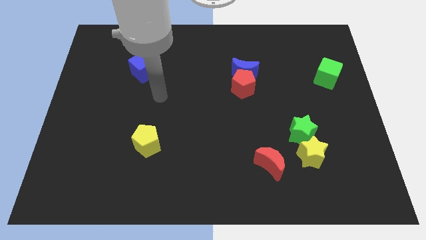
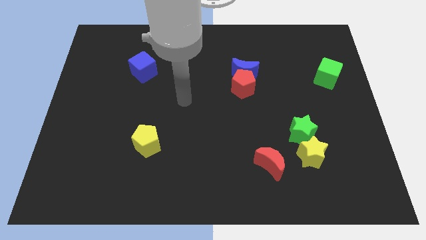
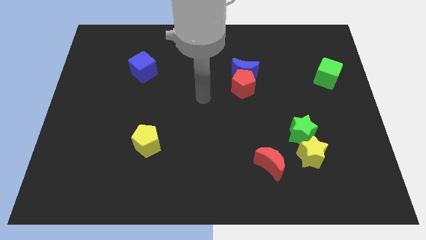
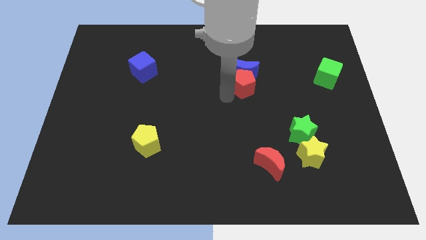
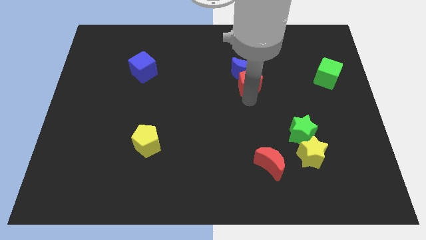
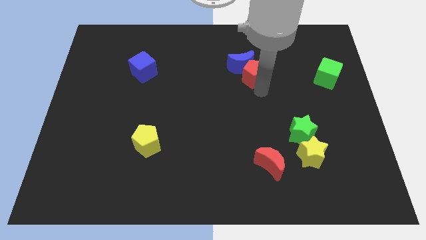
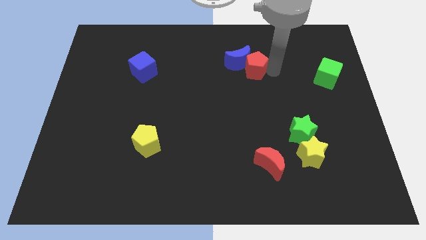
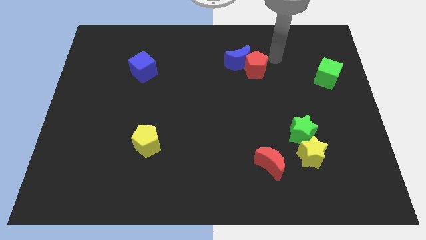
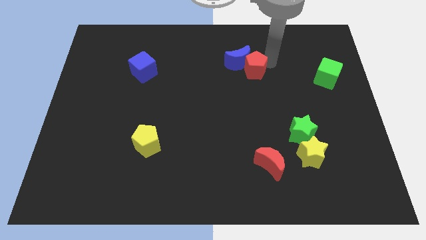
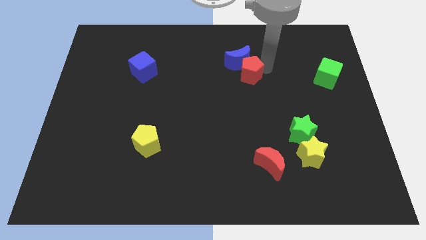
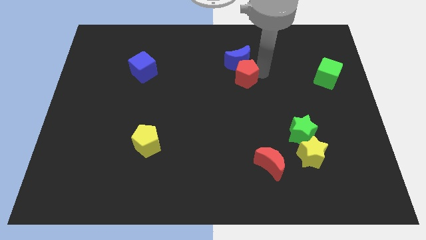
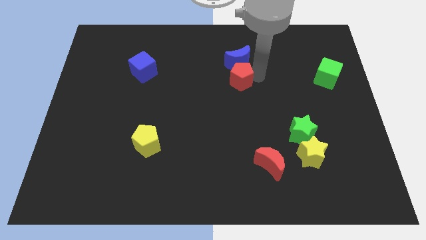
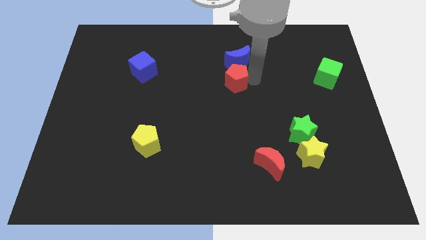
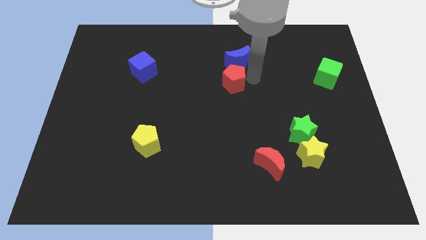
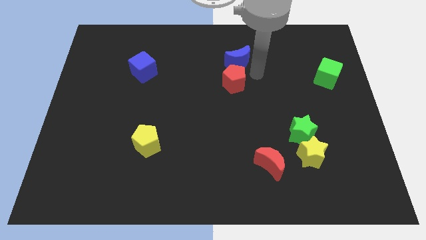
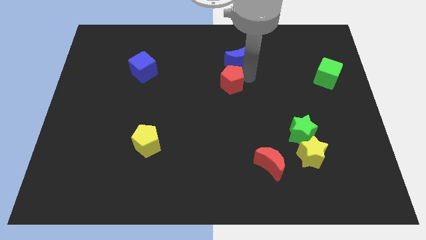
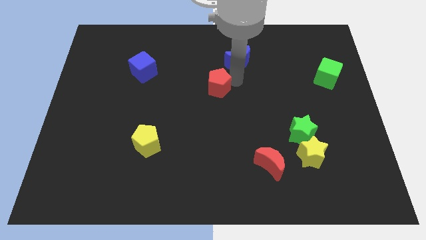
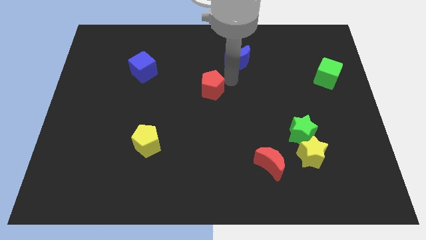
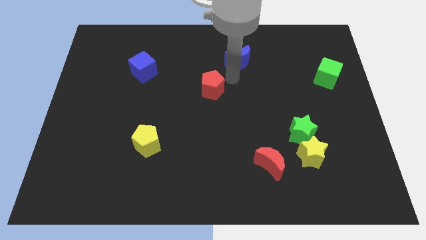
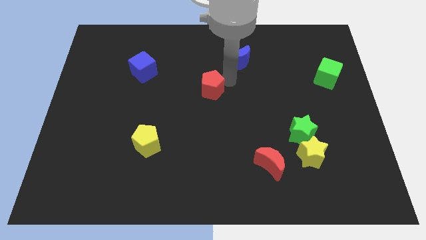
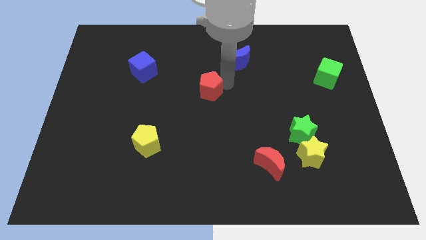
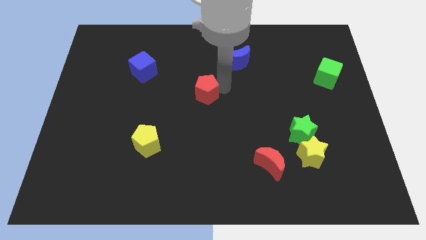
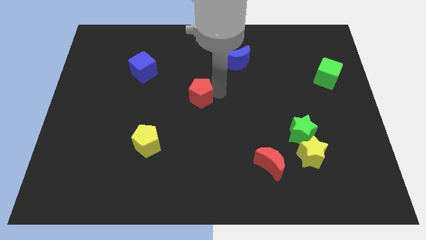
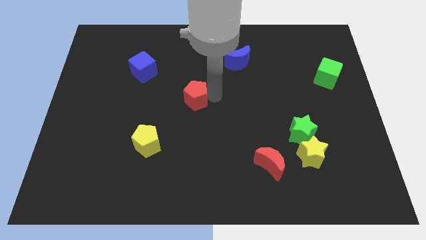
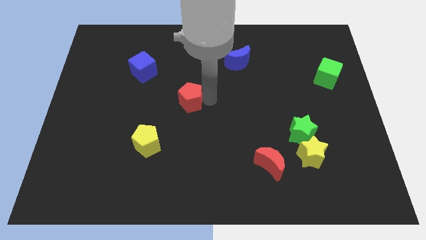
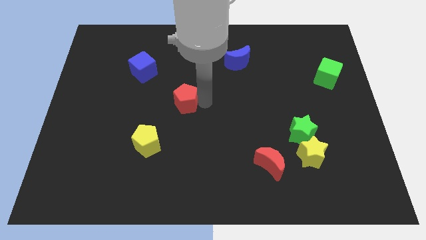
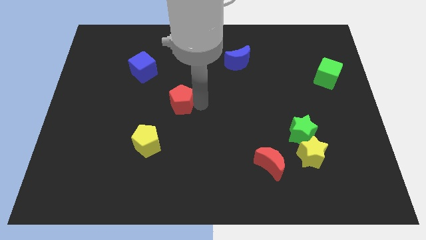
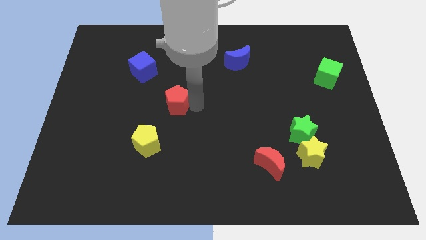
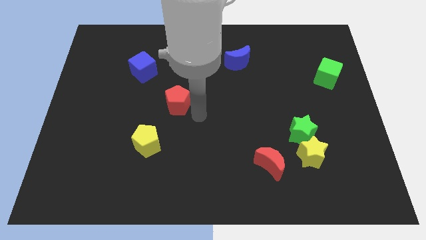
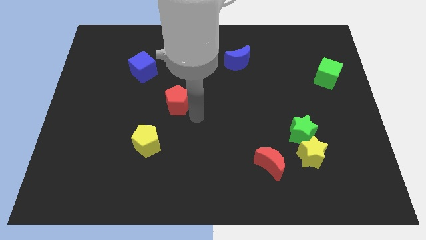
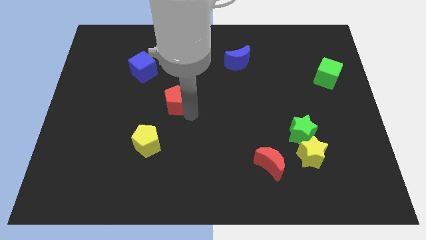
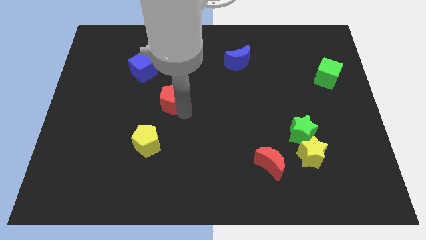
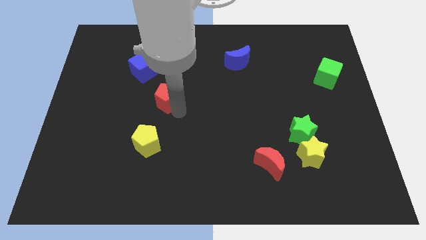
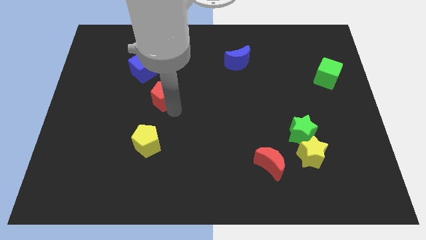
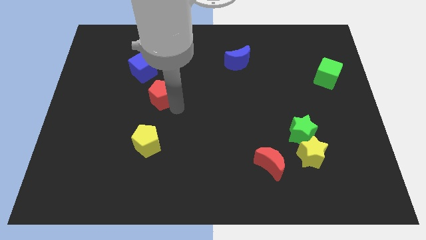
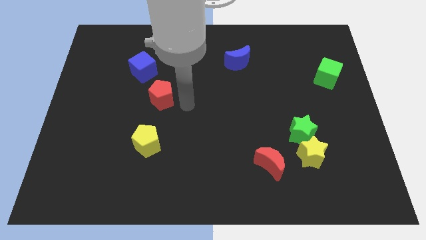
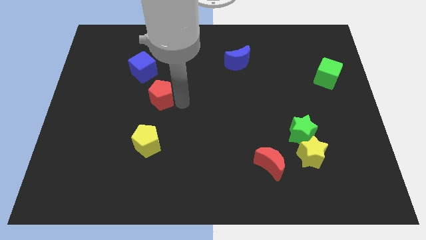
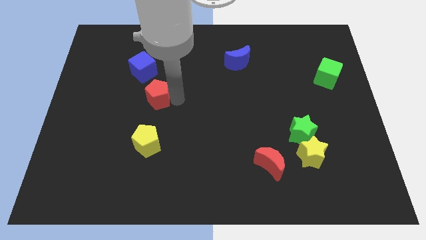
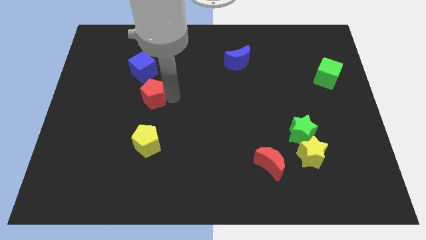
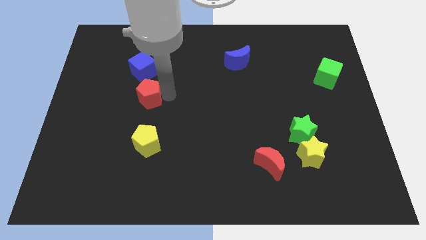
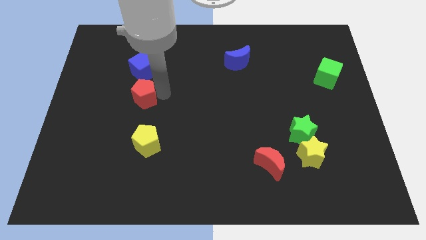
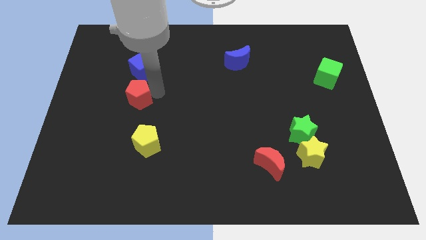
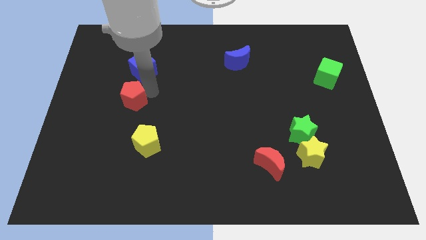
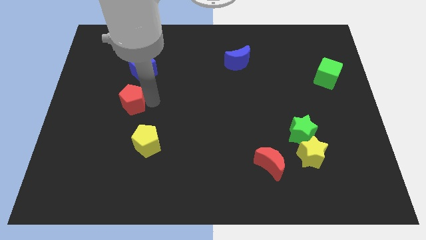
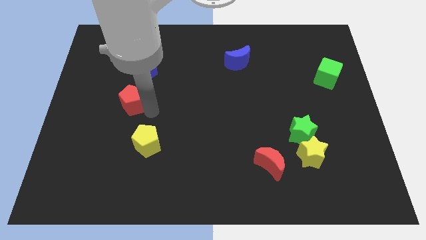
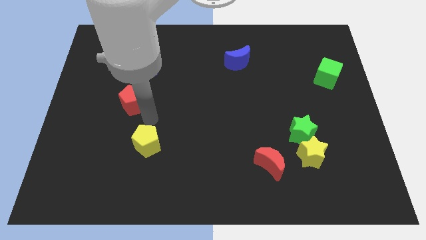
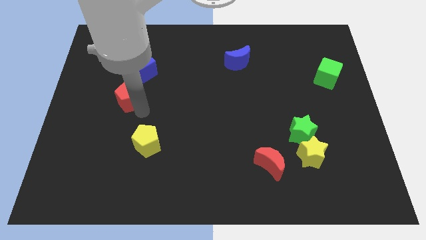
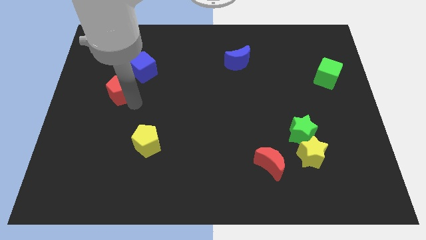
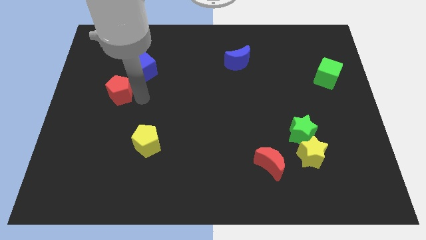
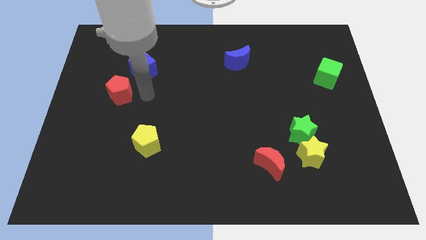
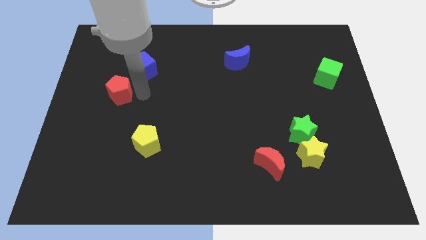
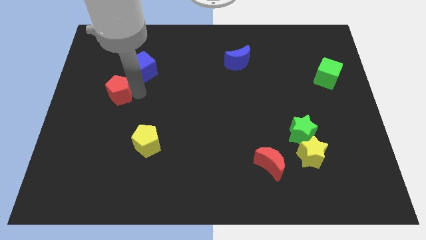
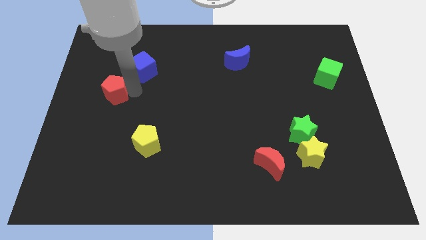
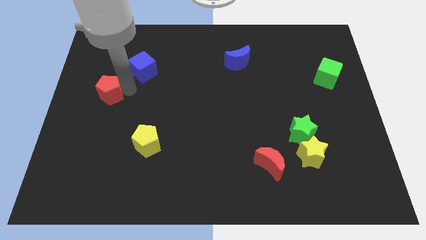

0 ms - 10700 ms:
slide the red pentagon to the left side

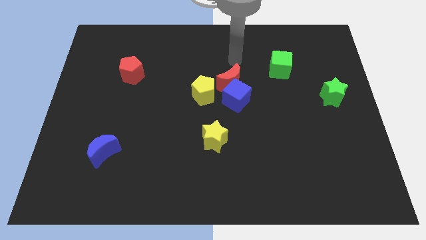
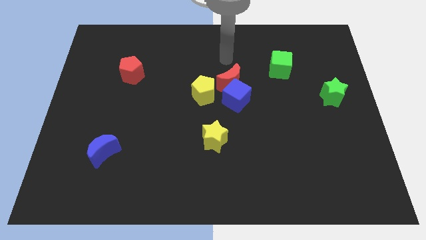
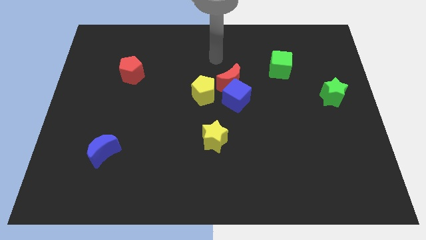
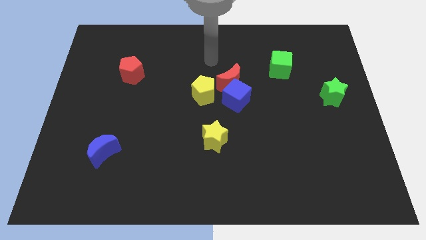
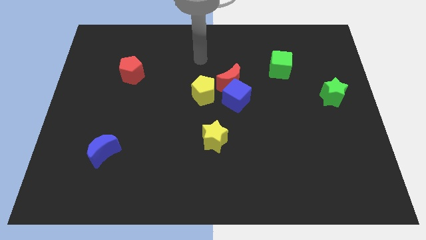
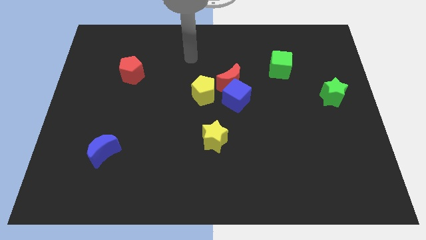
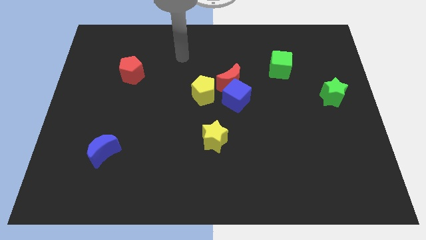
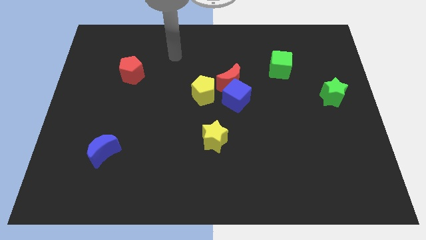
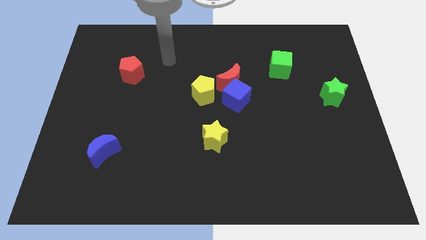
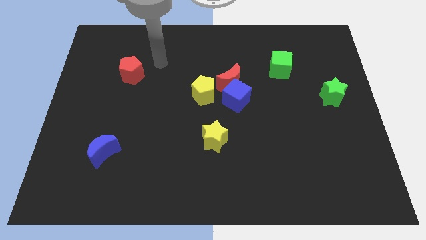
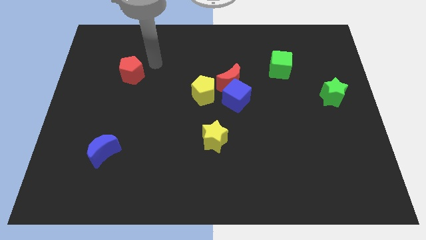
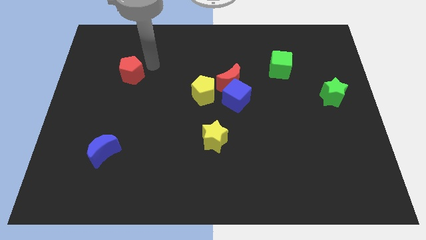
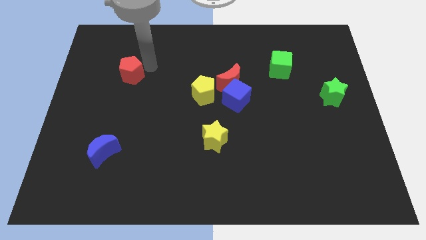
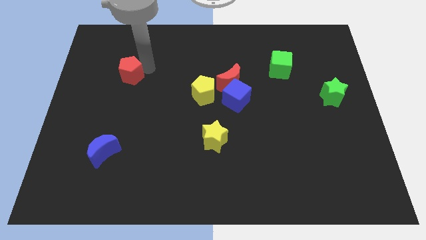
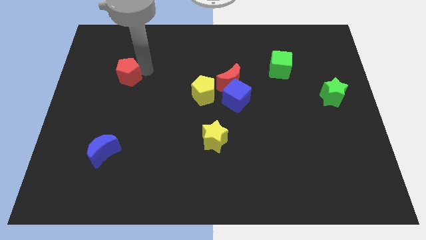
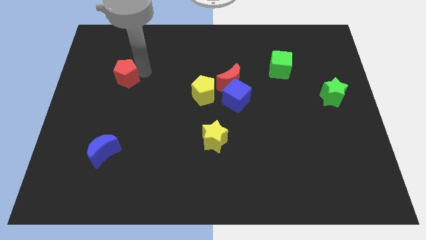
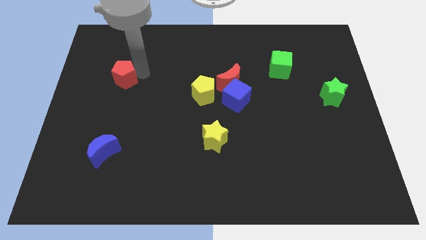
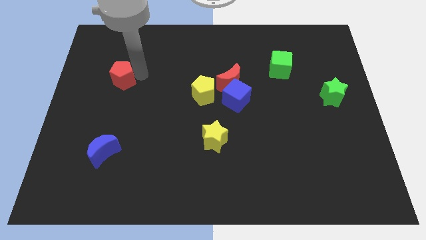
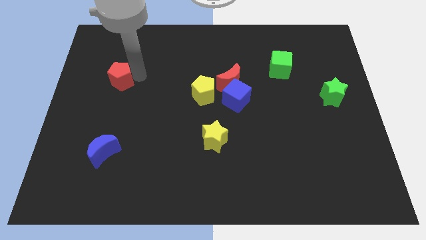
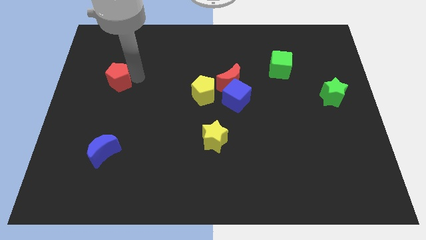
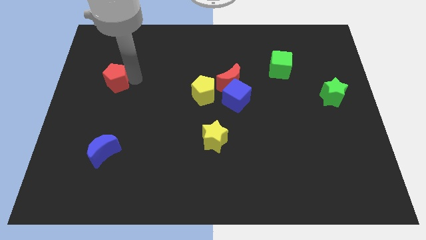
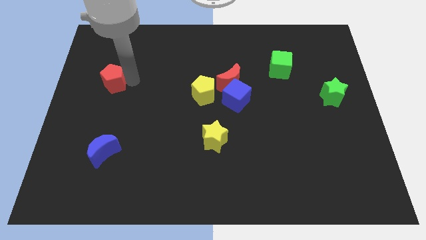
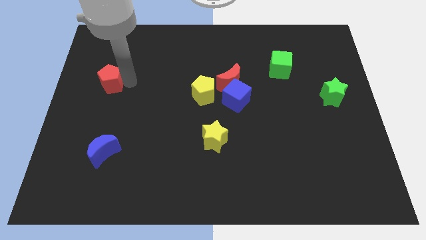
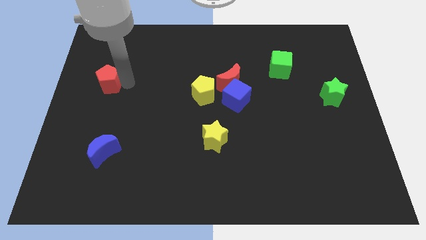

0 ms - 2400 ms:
put the red pentagon to the left side
